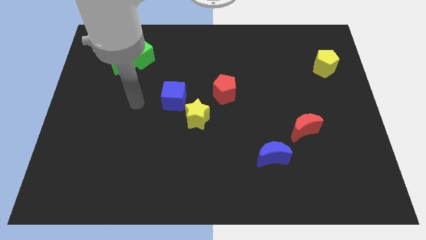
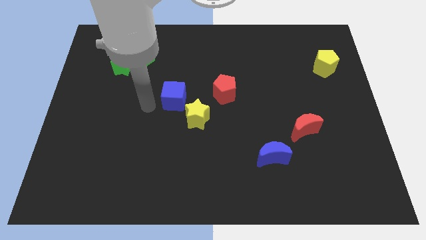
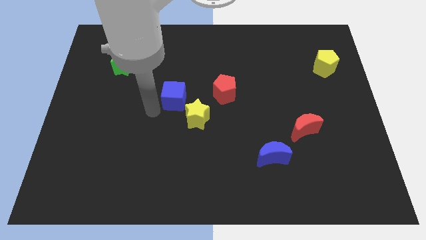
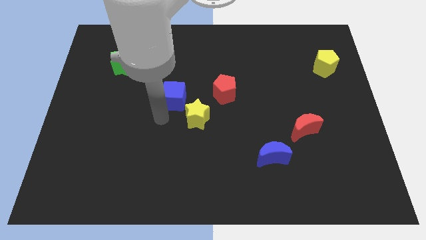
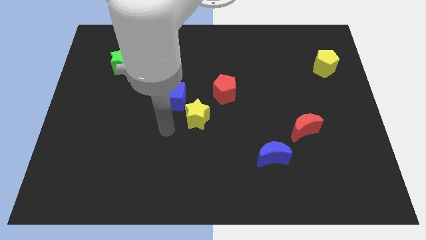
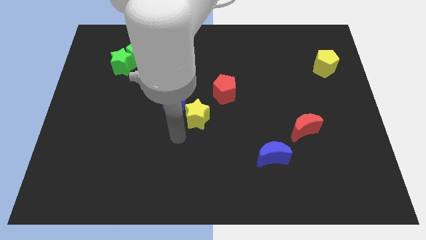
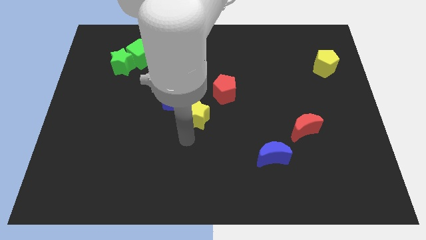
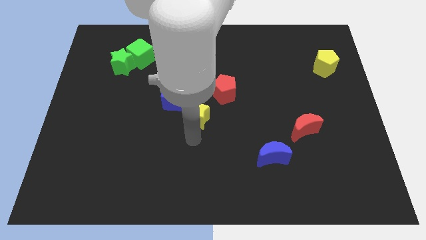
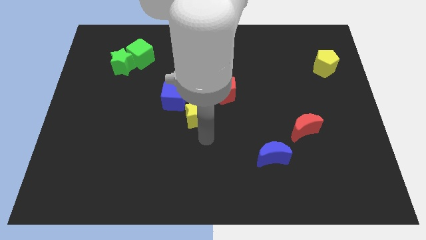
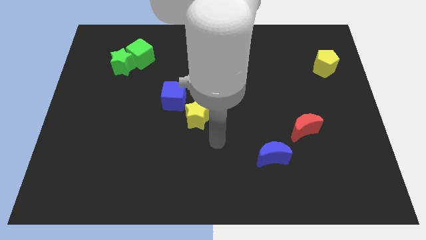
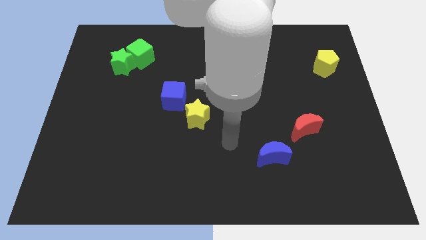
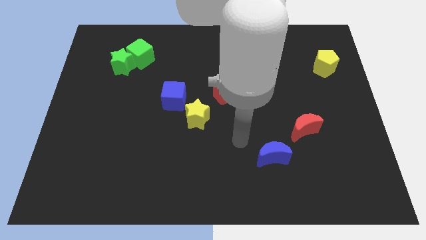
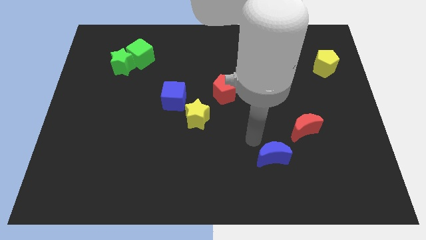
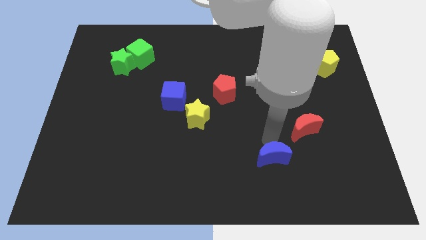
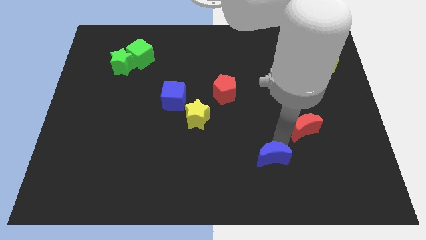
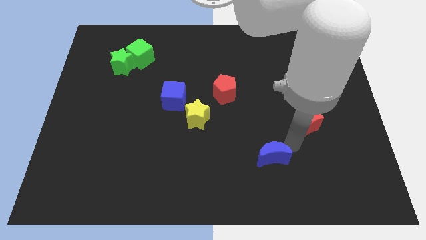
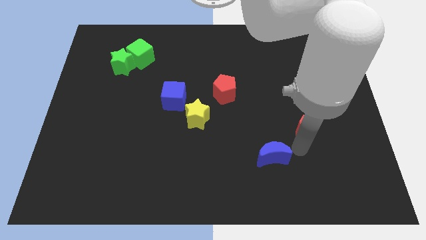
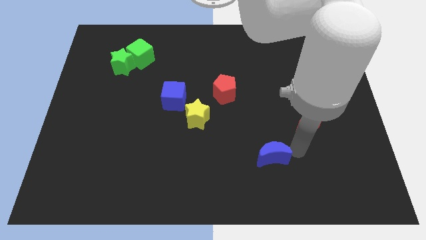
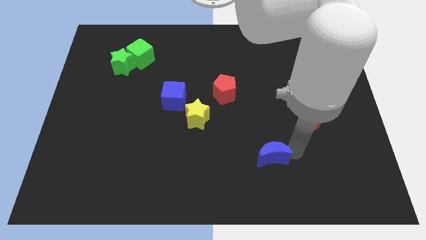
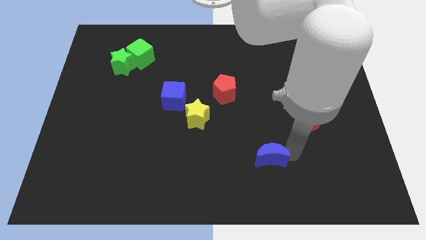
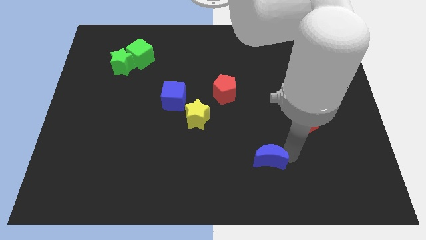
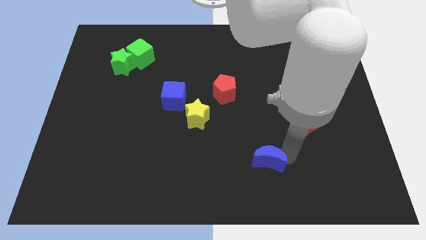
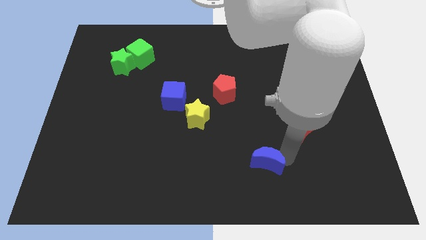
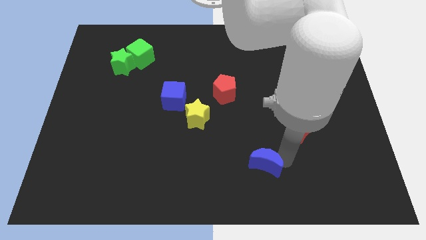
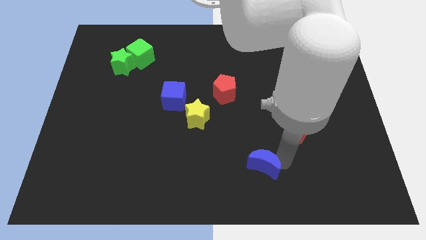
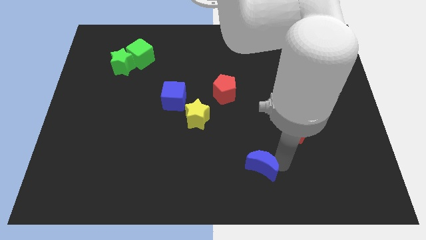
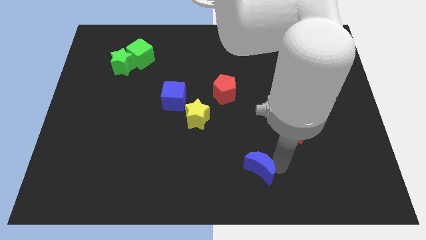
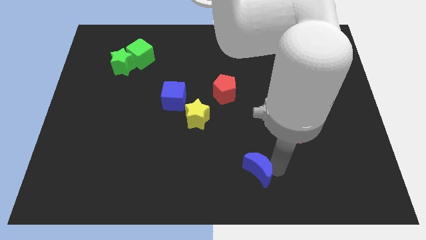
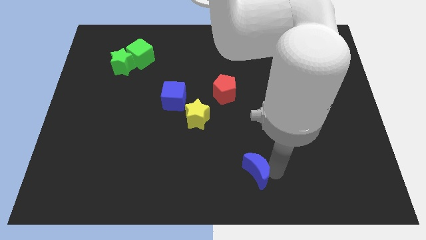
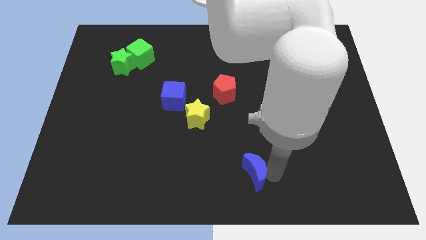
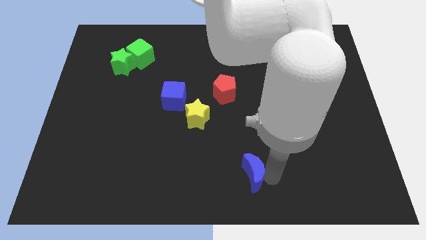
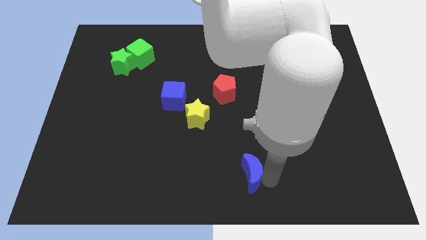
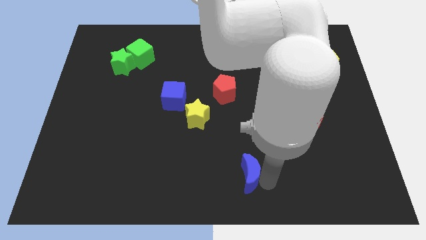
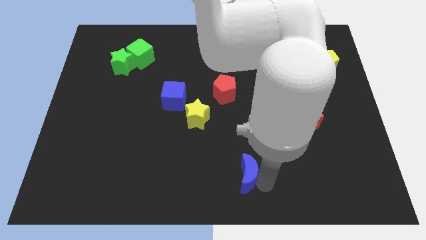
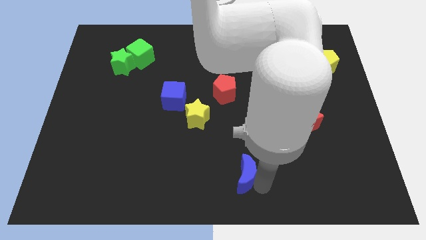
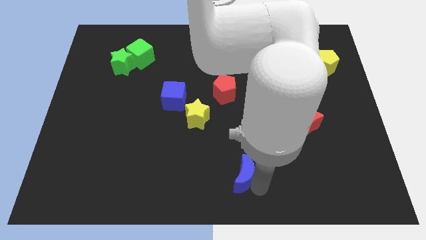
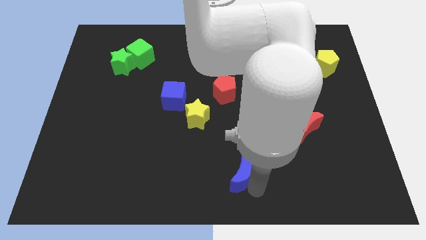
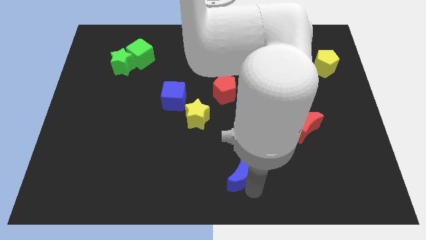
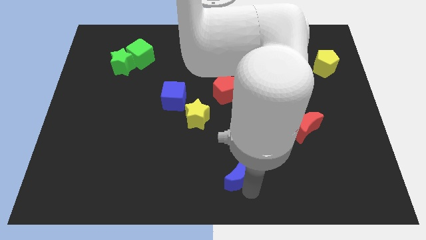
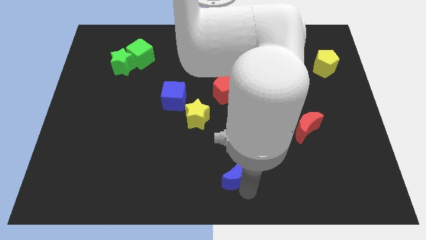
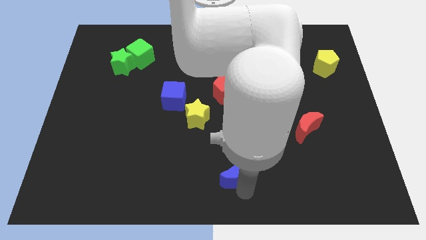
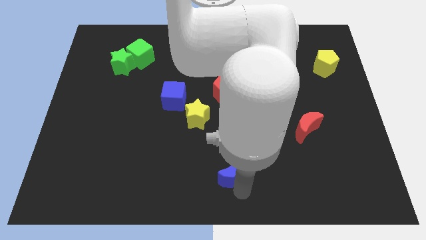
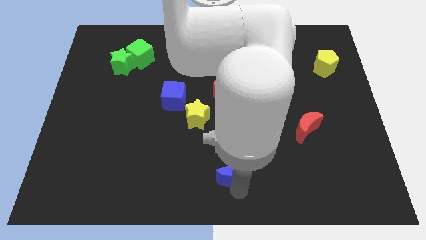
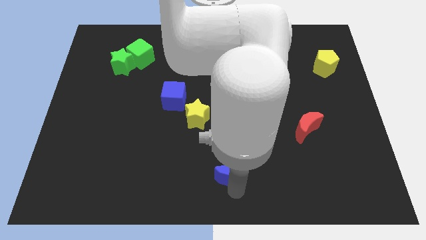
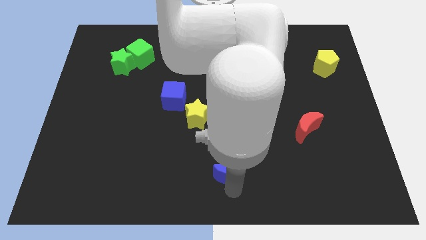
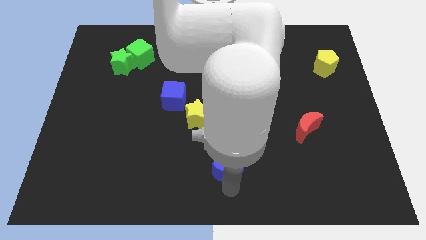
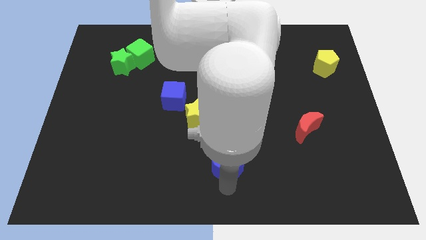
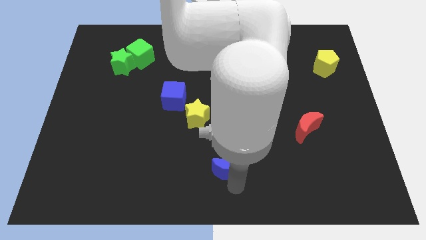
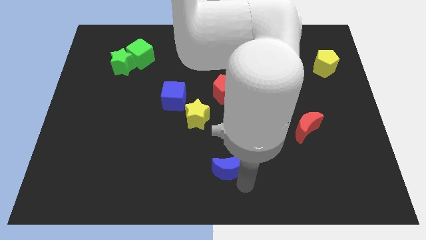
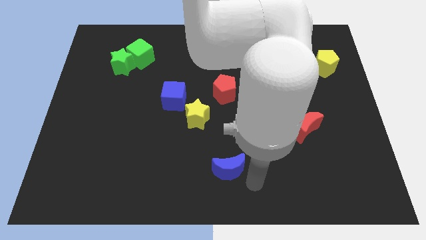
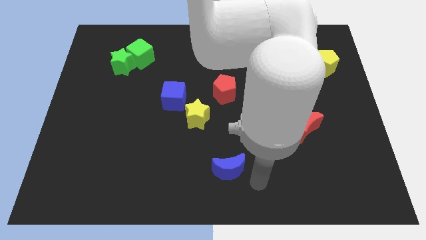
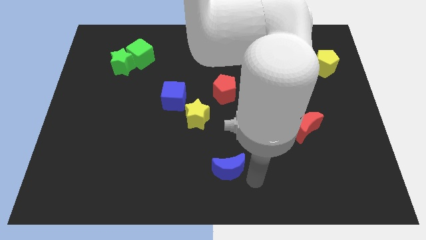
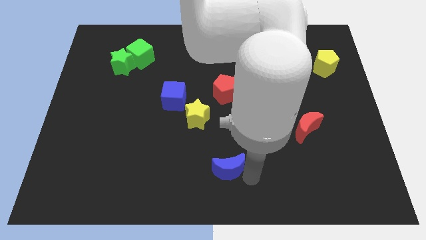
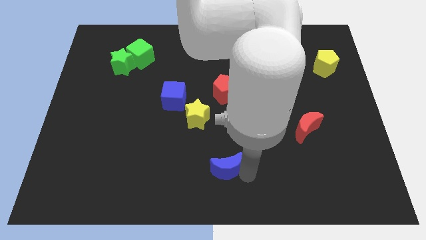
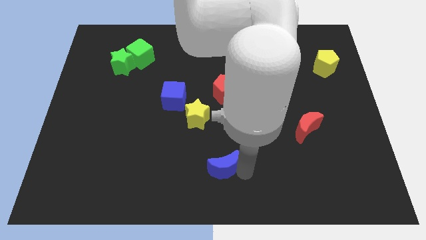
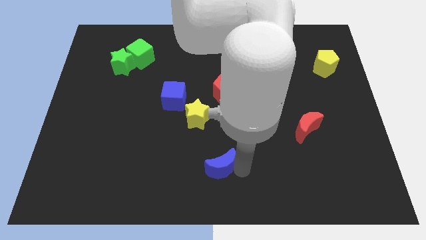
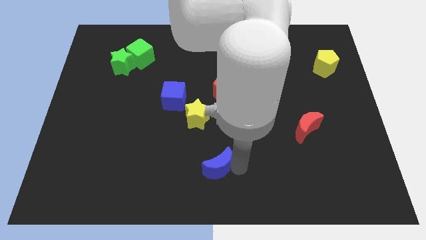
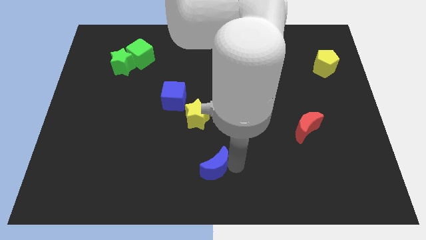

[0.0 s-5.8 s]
slide the blue moon below the yellow star

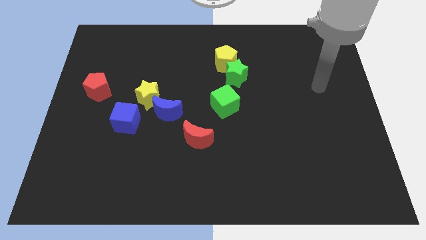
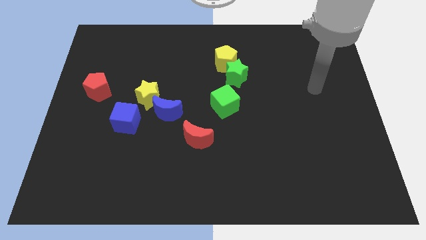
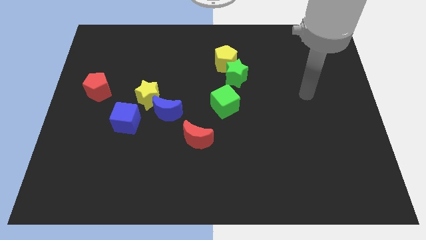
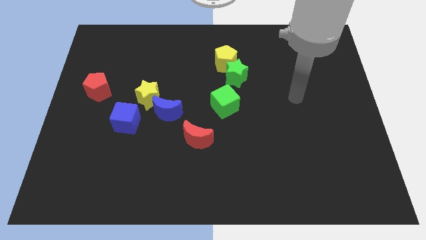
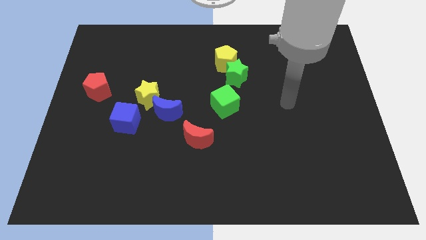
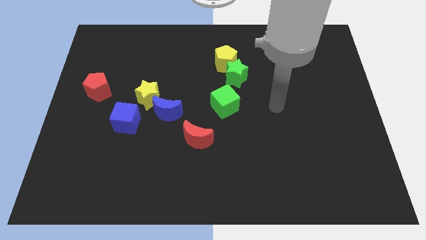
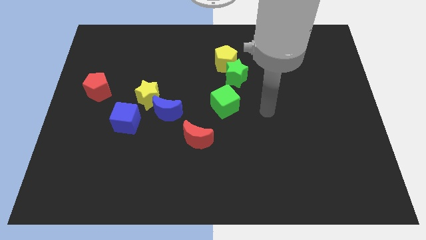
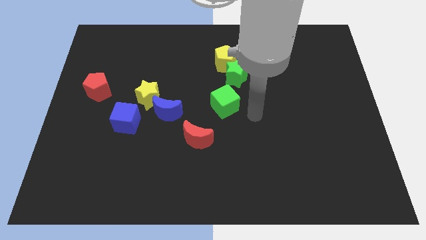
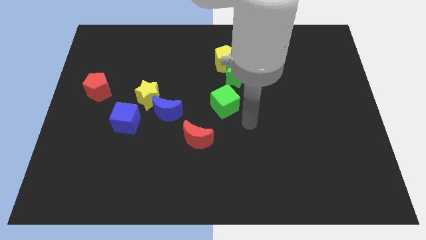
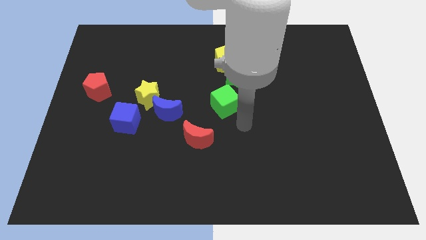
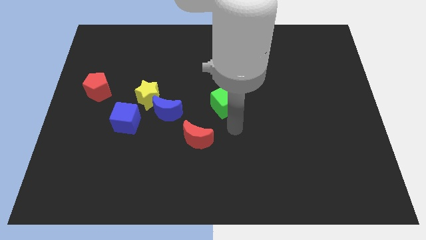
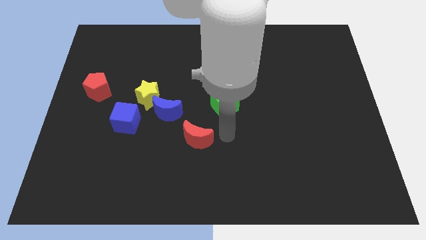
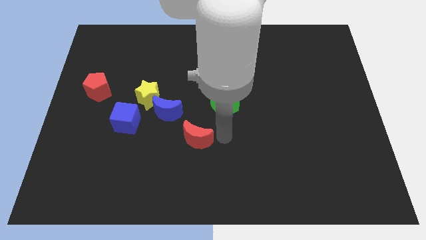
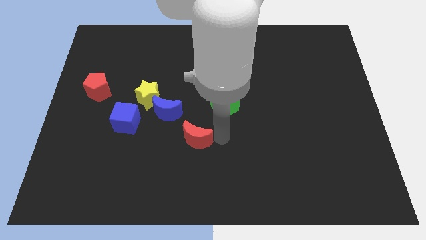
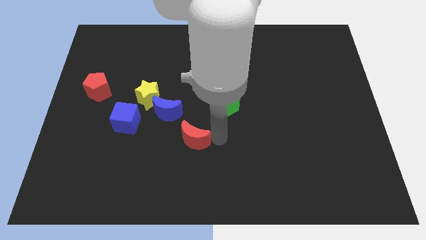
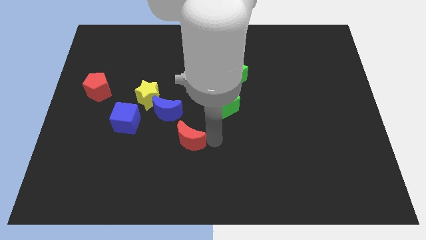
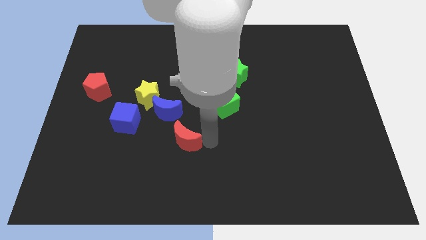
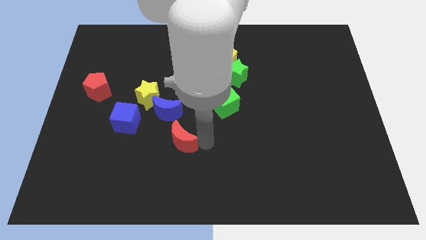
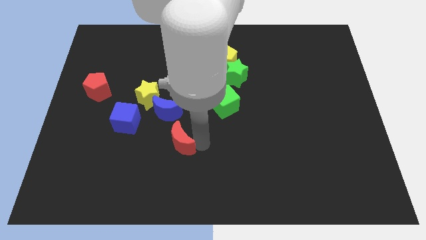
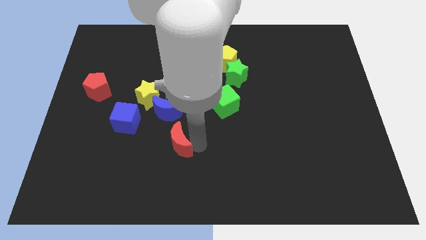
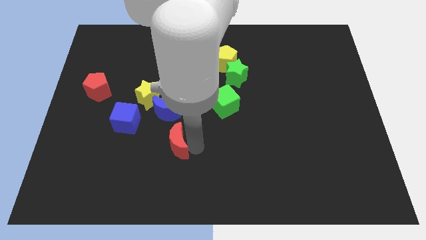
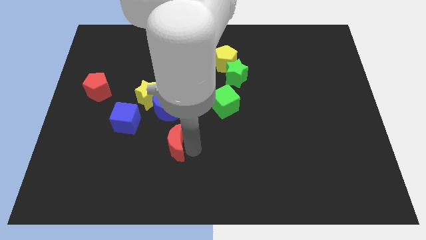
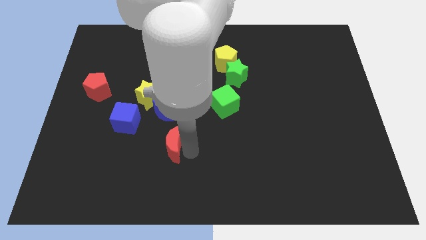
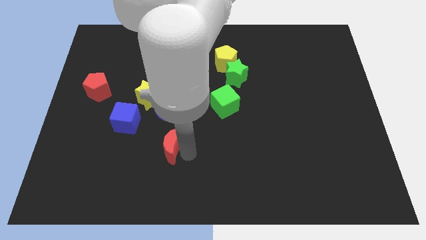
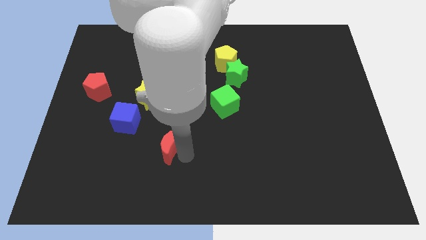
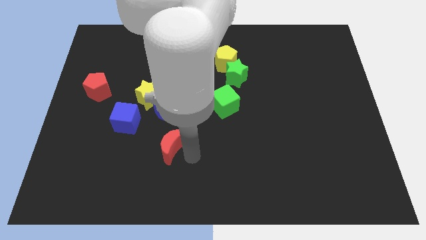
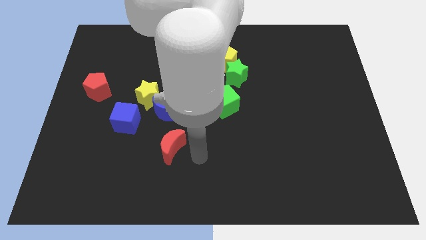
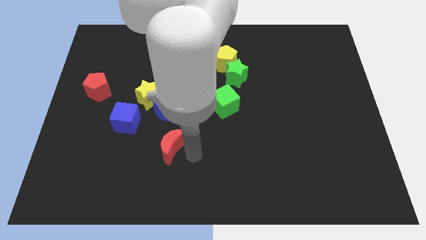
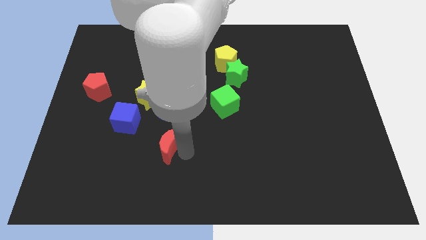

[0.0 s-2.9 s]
slide the red moon to the bottom right of the blue cube
